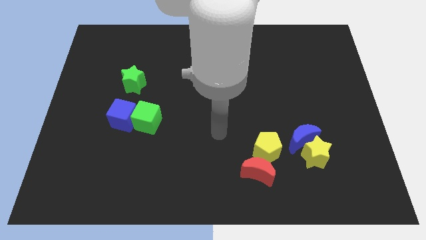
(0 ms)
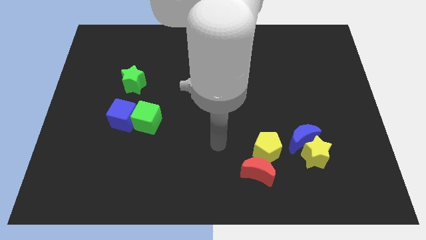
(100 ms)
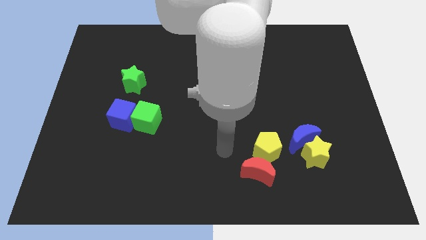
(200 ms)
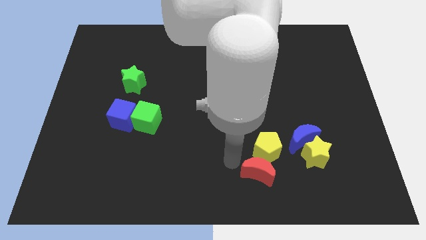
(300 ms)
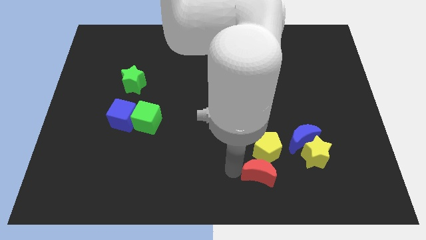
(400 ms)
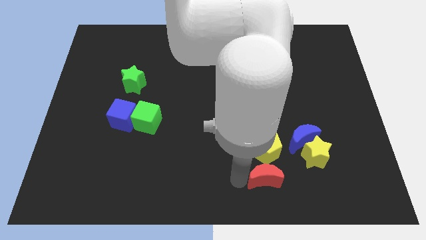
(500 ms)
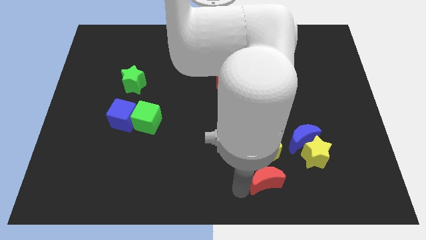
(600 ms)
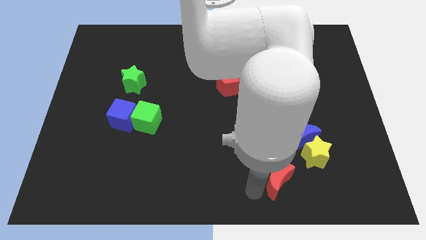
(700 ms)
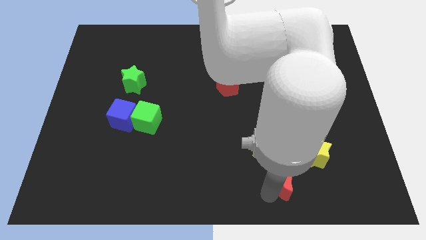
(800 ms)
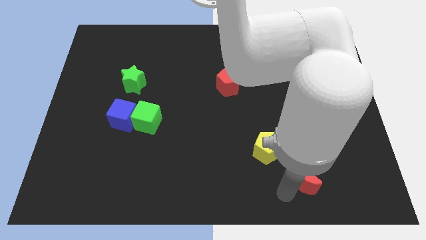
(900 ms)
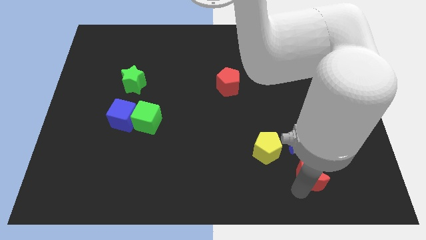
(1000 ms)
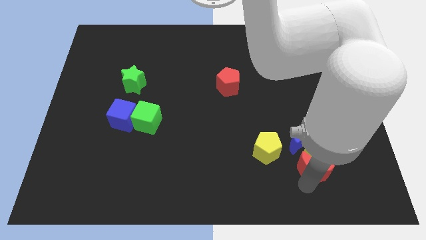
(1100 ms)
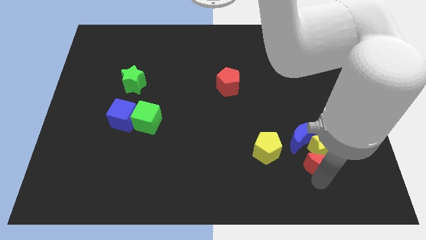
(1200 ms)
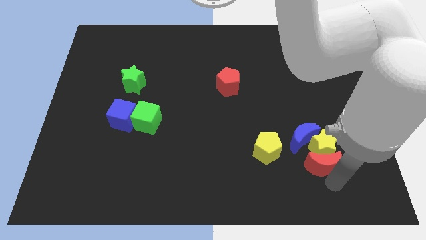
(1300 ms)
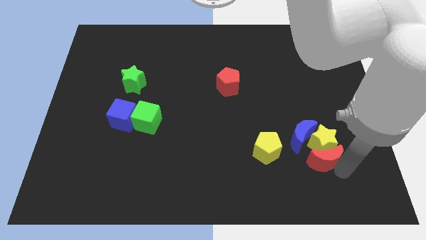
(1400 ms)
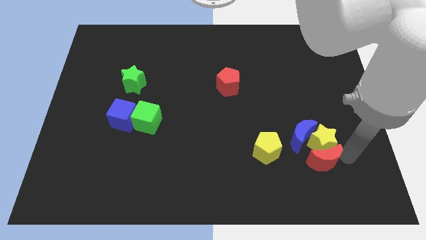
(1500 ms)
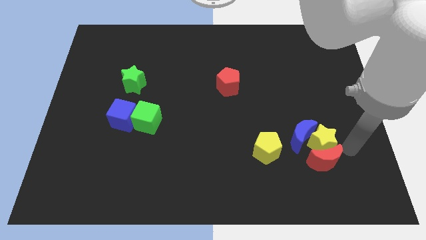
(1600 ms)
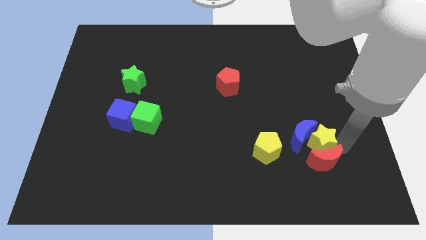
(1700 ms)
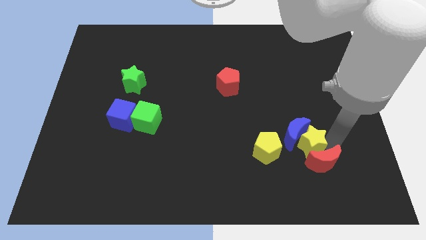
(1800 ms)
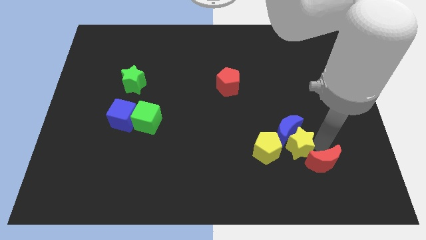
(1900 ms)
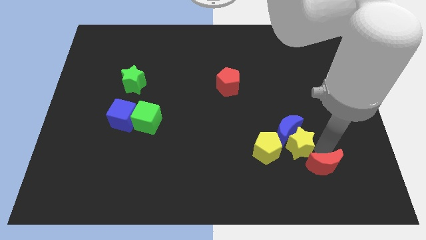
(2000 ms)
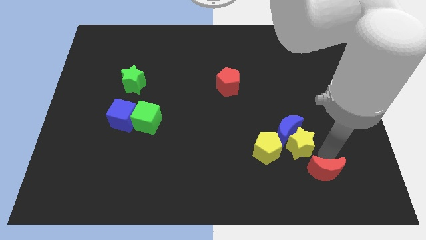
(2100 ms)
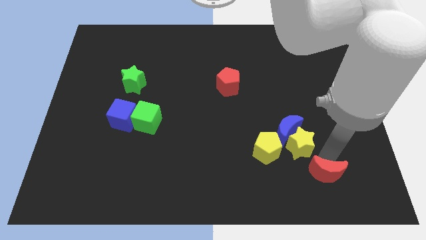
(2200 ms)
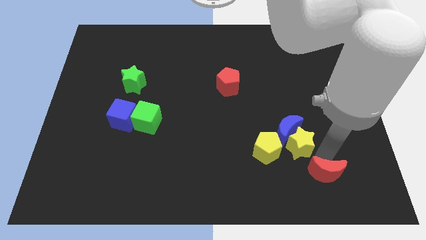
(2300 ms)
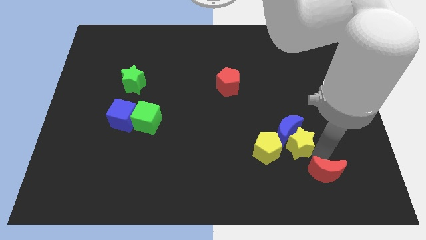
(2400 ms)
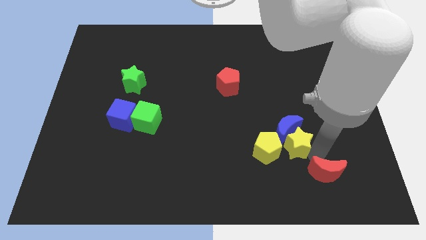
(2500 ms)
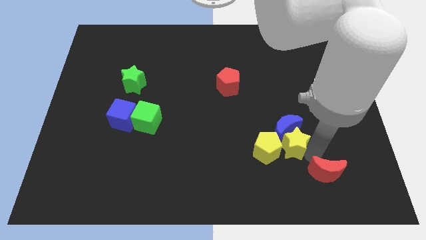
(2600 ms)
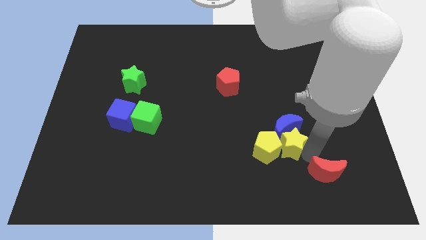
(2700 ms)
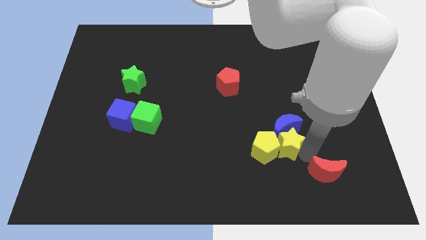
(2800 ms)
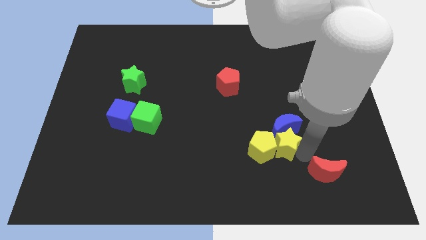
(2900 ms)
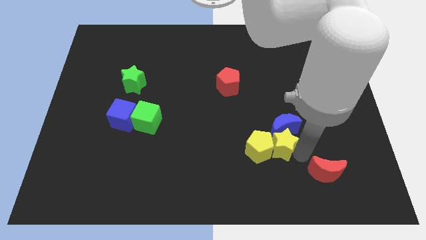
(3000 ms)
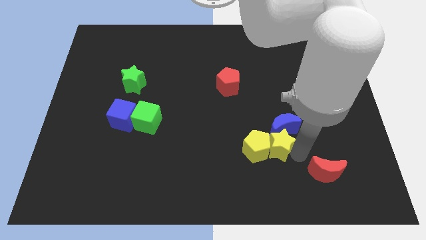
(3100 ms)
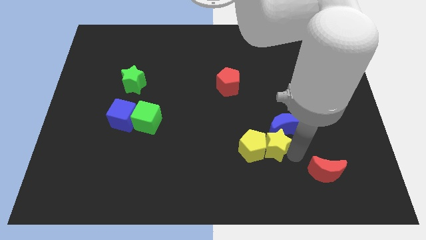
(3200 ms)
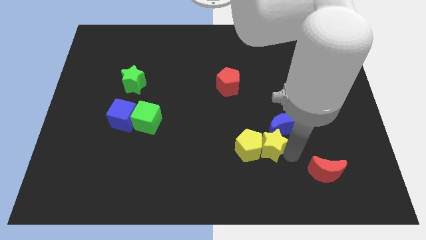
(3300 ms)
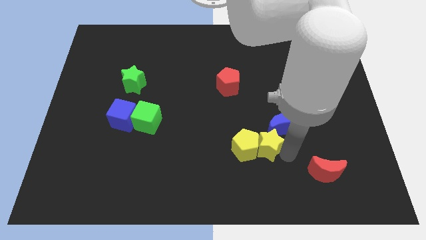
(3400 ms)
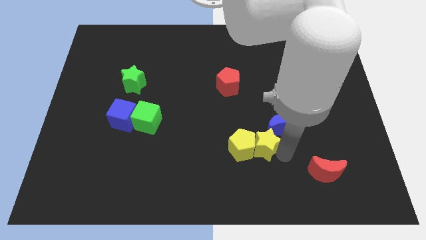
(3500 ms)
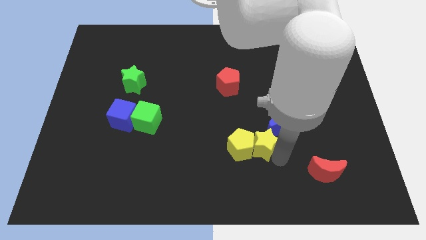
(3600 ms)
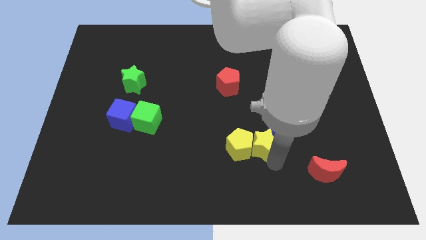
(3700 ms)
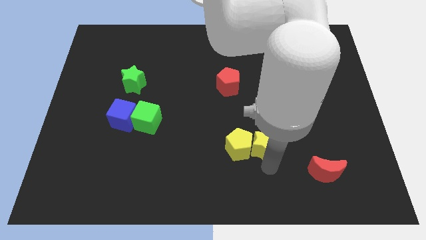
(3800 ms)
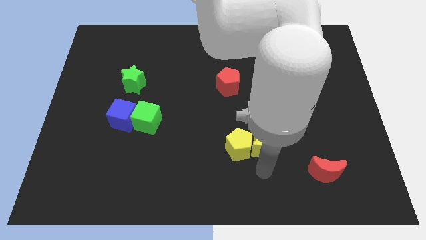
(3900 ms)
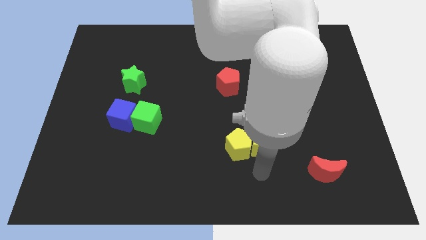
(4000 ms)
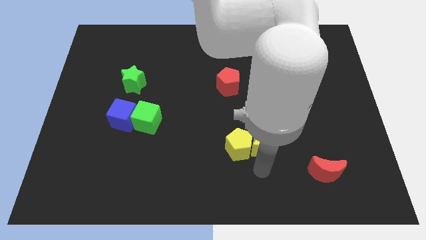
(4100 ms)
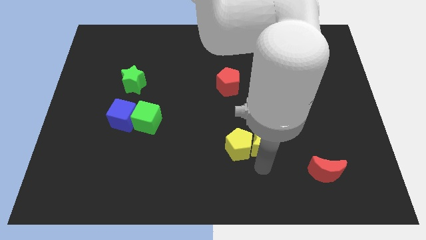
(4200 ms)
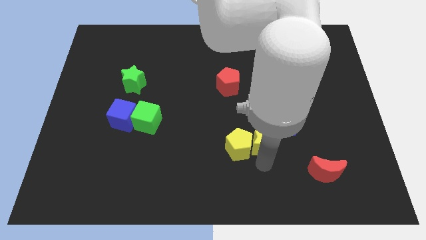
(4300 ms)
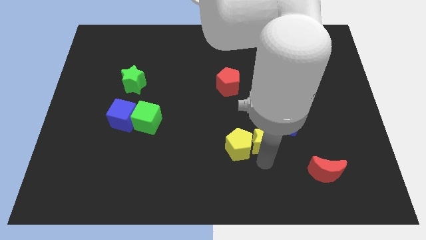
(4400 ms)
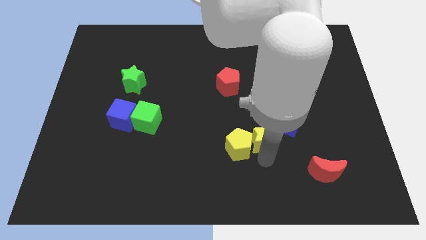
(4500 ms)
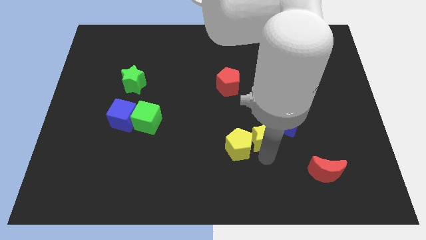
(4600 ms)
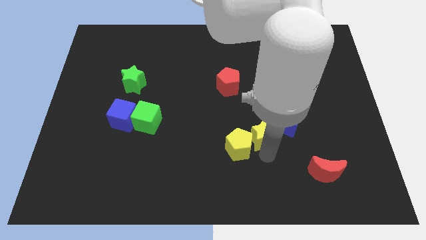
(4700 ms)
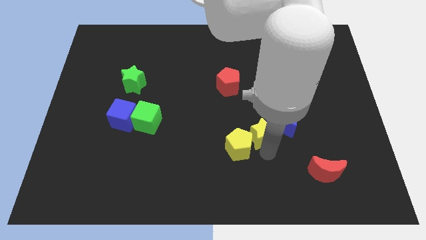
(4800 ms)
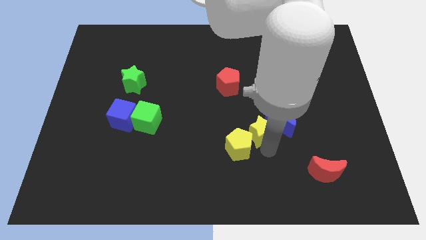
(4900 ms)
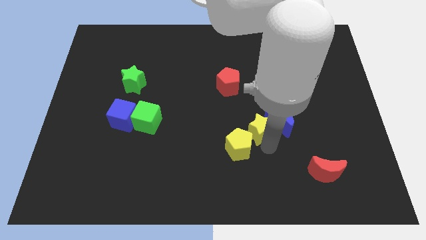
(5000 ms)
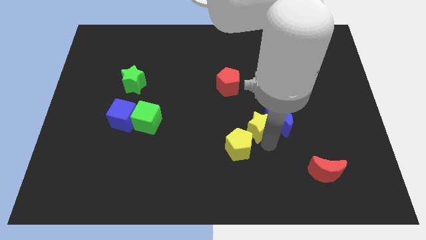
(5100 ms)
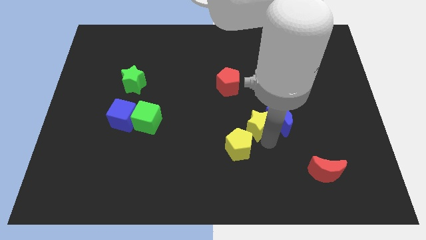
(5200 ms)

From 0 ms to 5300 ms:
move the yellow star to the center of the board

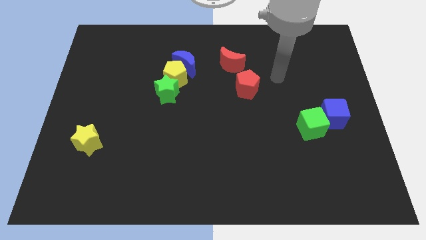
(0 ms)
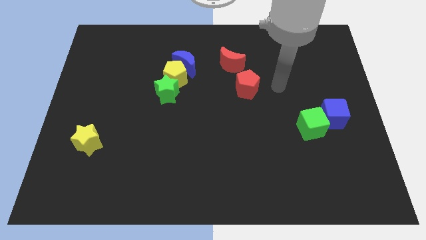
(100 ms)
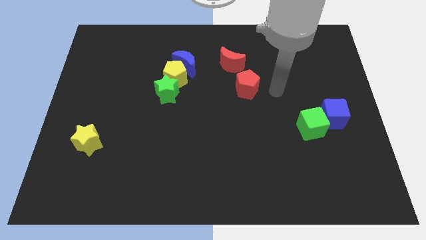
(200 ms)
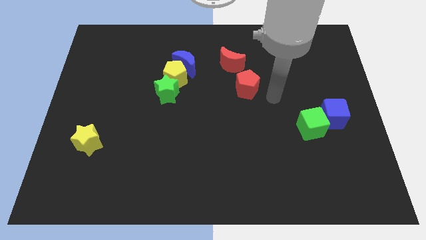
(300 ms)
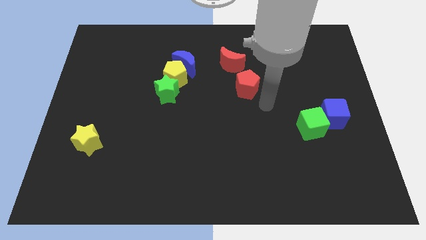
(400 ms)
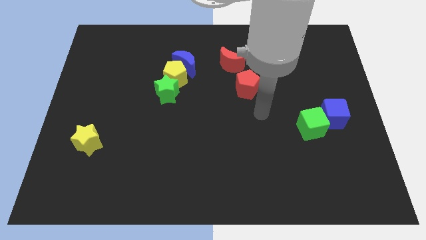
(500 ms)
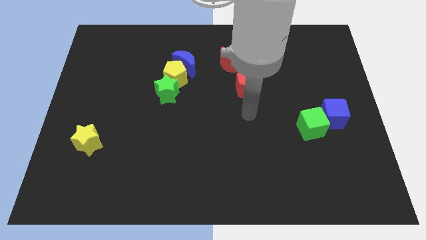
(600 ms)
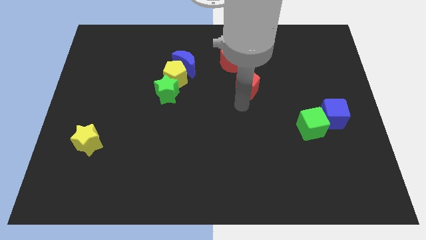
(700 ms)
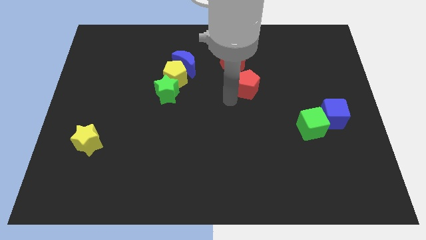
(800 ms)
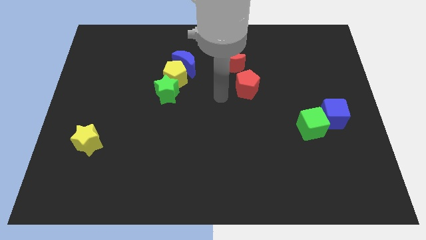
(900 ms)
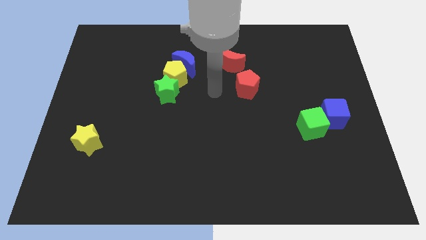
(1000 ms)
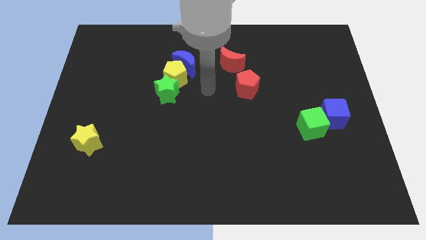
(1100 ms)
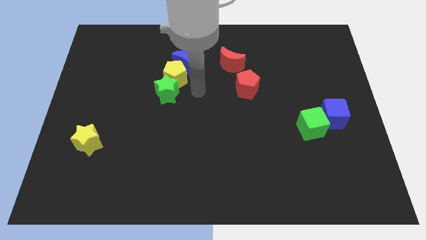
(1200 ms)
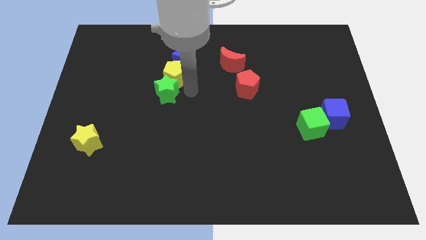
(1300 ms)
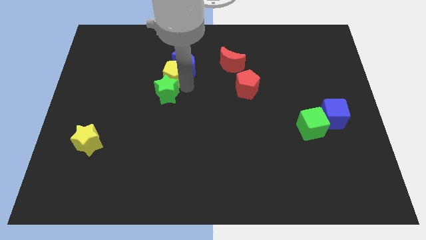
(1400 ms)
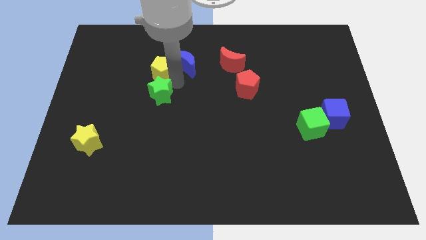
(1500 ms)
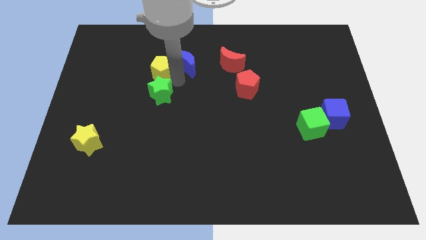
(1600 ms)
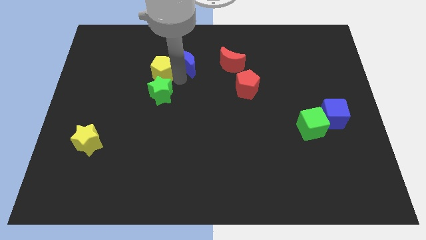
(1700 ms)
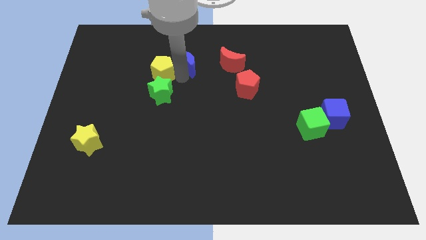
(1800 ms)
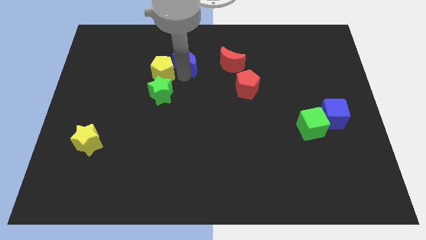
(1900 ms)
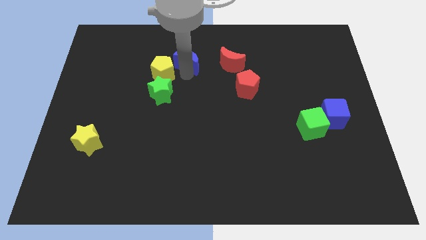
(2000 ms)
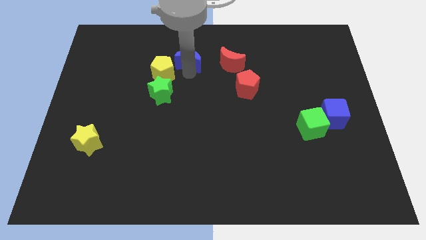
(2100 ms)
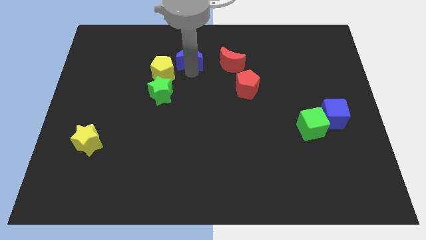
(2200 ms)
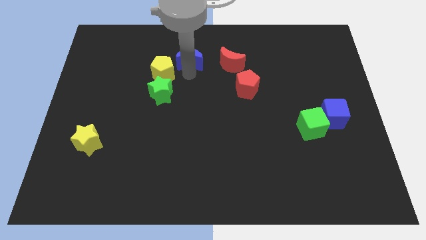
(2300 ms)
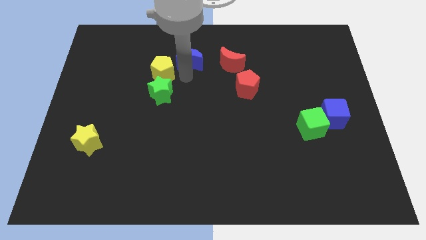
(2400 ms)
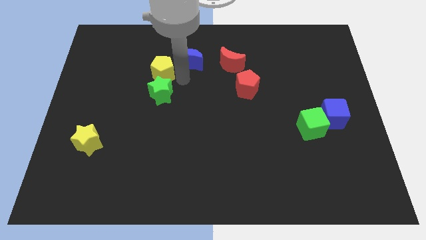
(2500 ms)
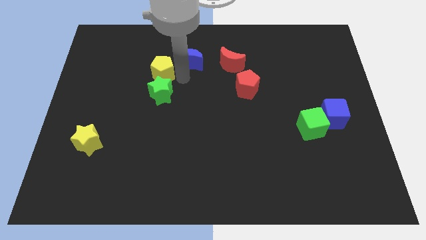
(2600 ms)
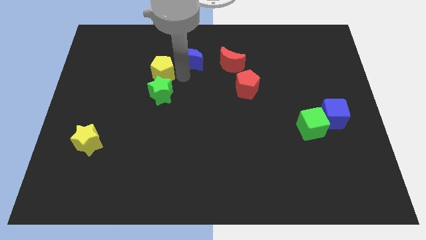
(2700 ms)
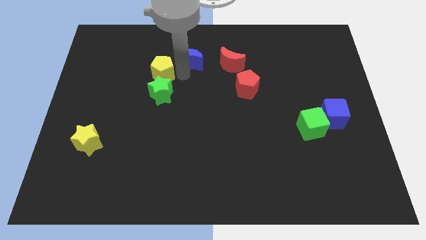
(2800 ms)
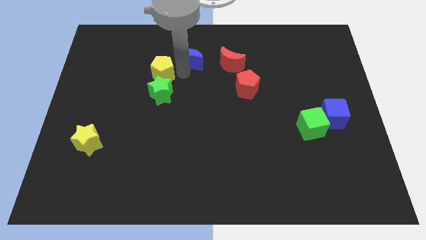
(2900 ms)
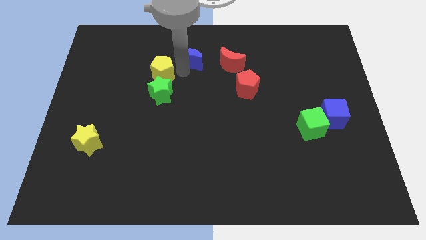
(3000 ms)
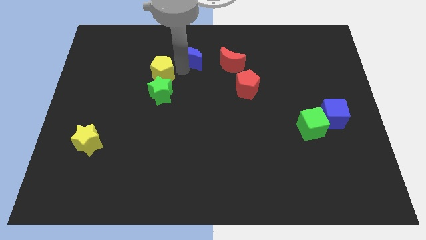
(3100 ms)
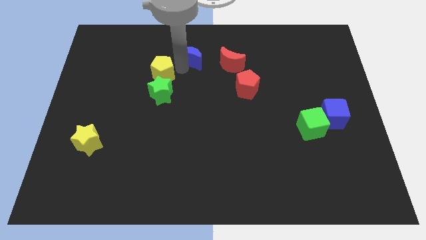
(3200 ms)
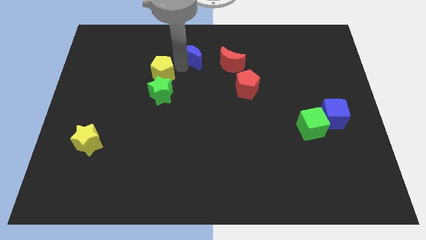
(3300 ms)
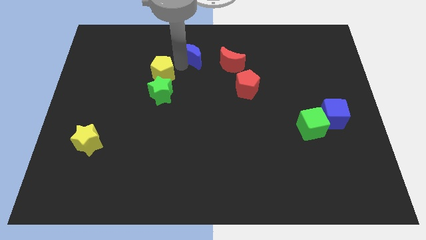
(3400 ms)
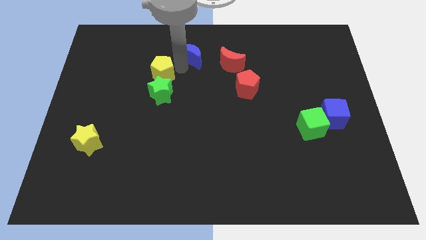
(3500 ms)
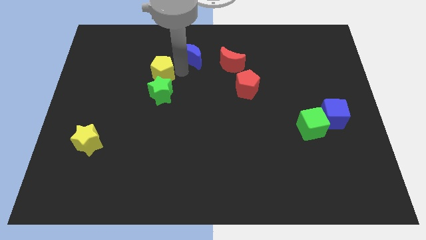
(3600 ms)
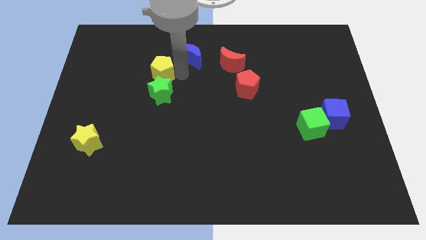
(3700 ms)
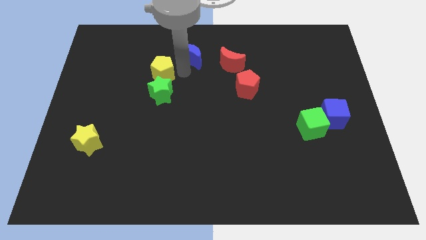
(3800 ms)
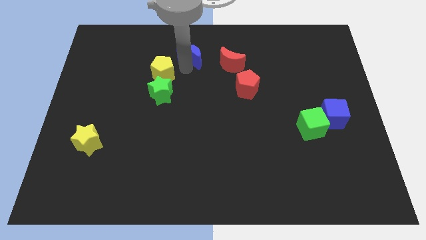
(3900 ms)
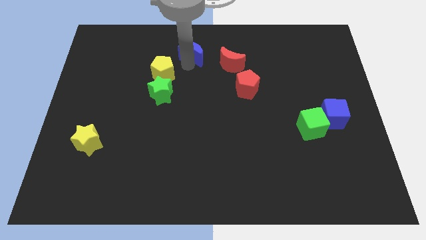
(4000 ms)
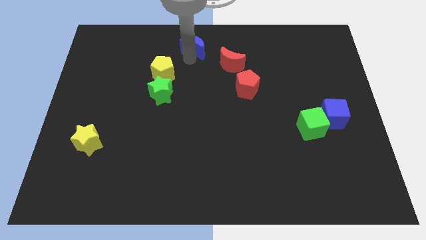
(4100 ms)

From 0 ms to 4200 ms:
slide the blue moon to the towards your base
